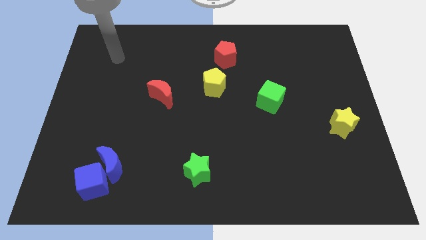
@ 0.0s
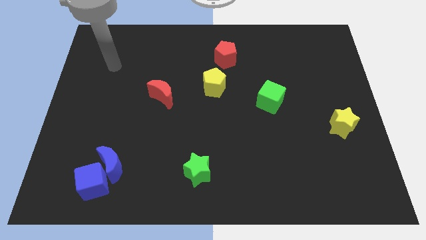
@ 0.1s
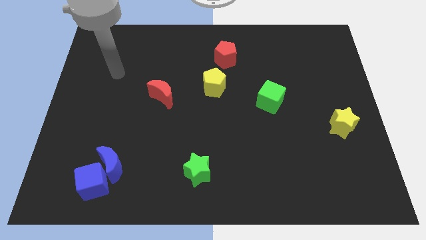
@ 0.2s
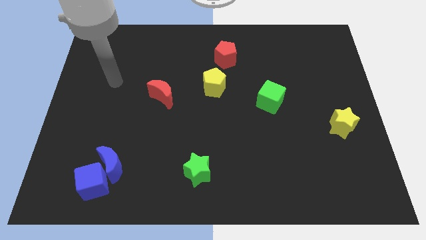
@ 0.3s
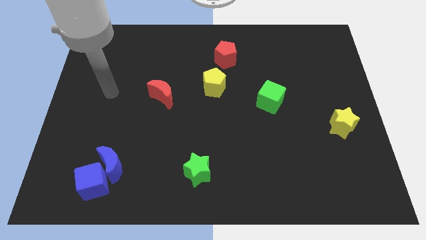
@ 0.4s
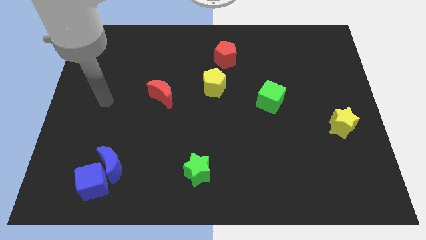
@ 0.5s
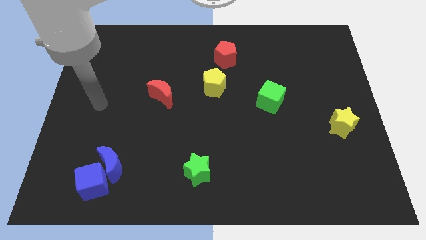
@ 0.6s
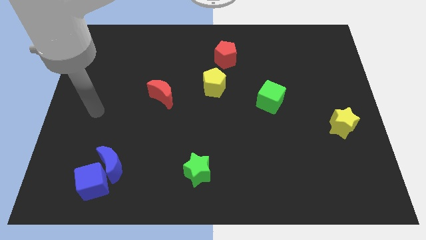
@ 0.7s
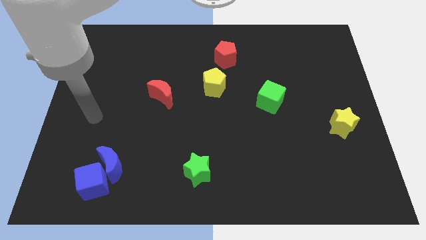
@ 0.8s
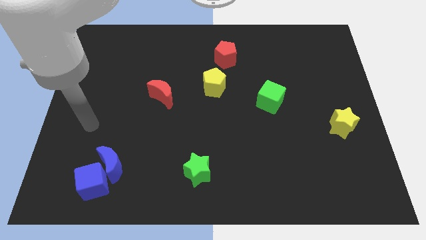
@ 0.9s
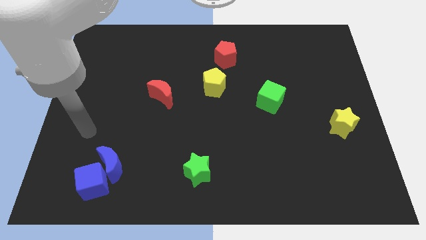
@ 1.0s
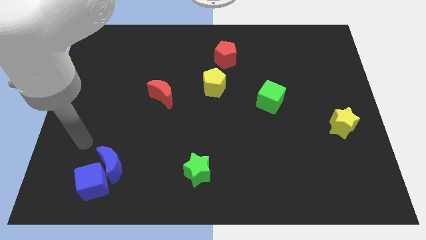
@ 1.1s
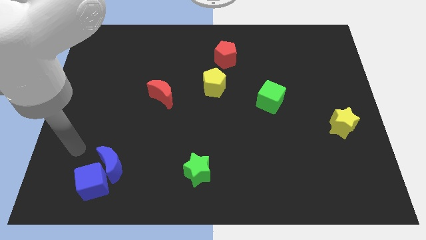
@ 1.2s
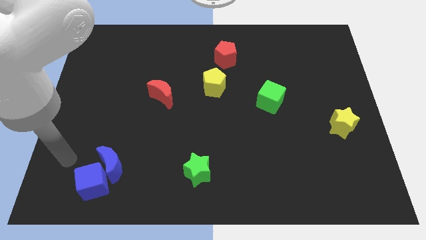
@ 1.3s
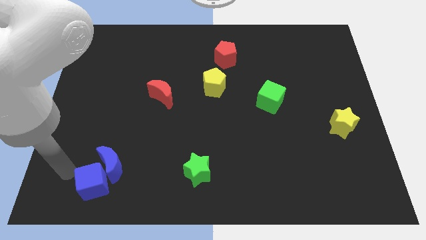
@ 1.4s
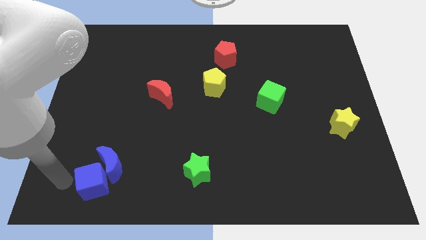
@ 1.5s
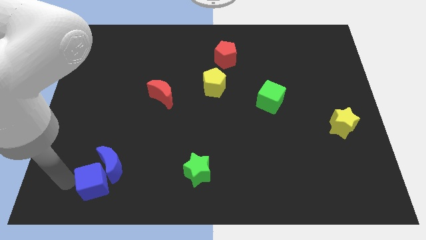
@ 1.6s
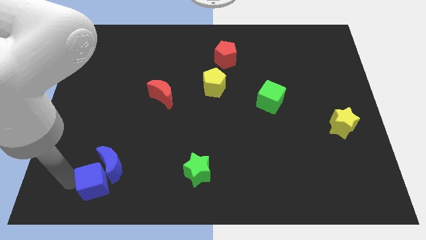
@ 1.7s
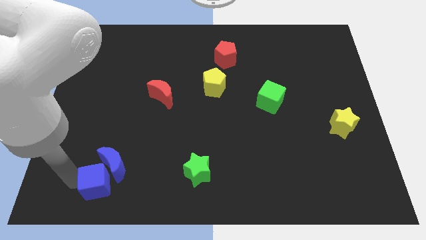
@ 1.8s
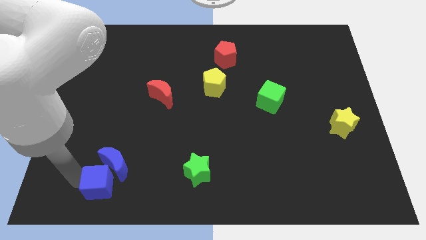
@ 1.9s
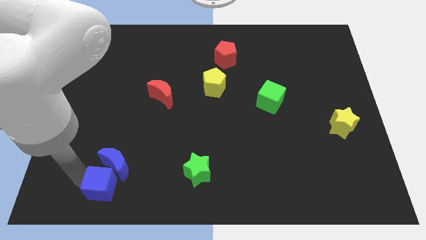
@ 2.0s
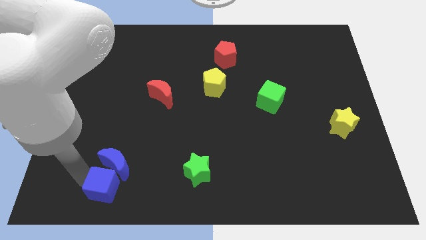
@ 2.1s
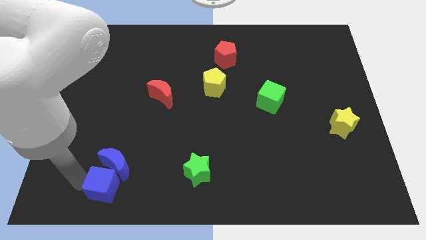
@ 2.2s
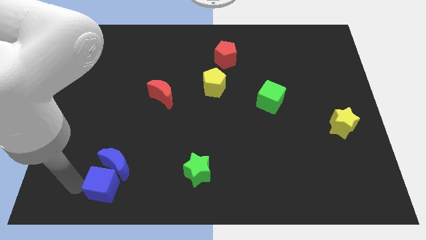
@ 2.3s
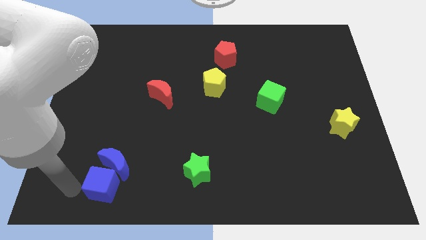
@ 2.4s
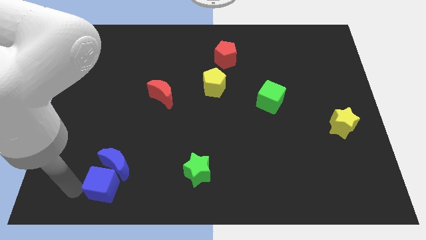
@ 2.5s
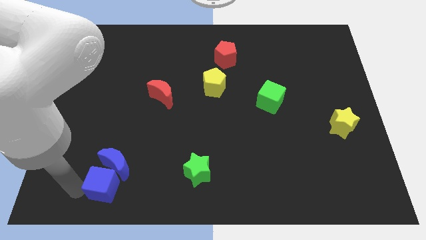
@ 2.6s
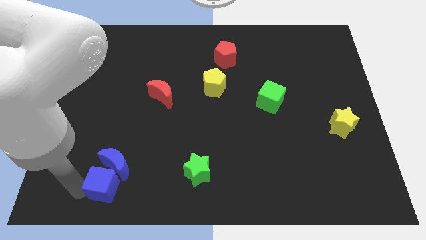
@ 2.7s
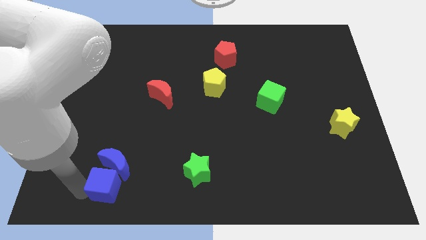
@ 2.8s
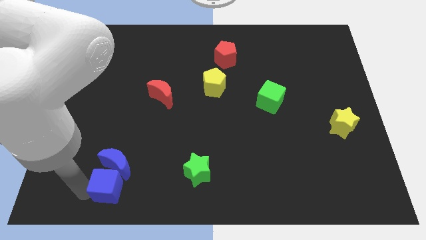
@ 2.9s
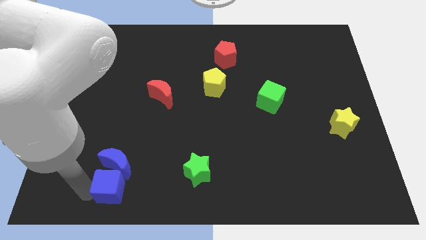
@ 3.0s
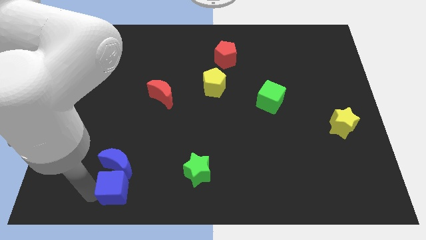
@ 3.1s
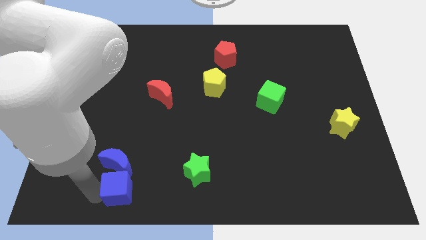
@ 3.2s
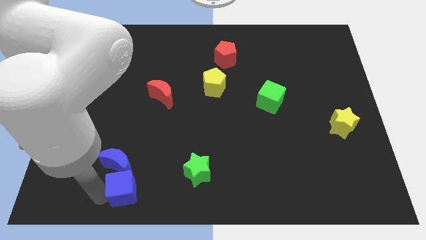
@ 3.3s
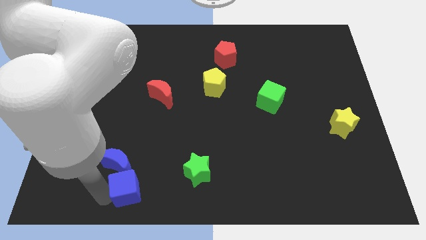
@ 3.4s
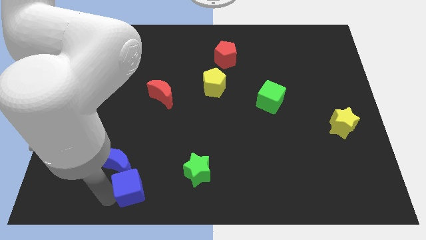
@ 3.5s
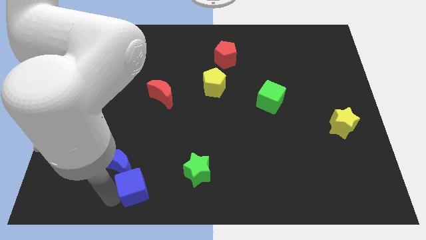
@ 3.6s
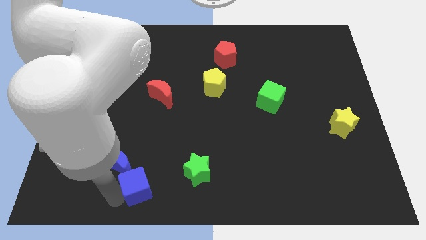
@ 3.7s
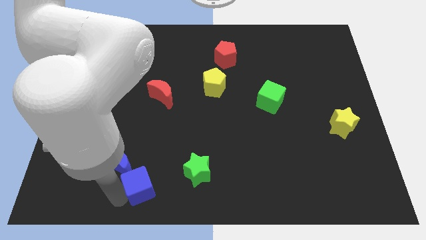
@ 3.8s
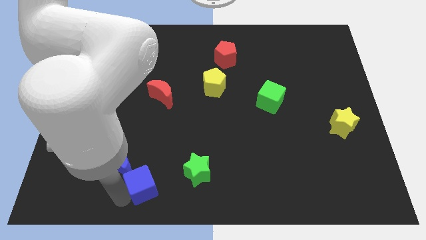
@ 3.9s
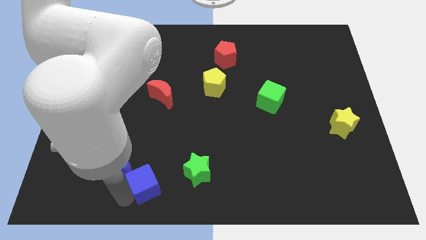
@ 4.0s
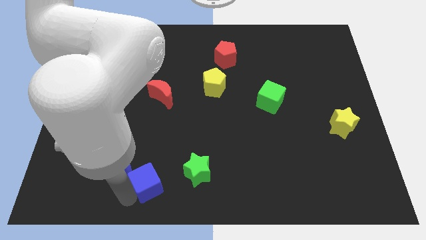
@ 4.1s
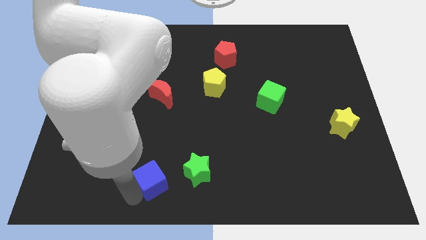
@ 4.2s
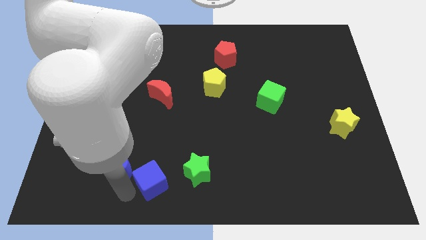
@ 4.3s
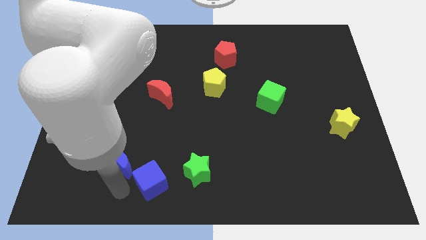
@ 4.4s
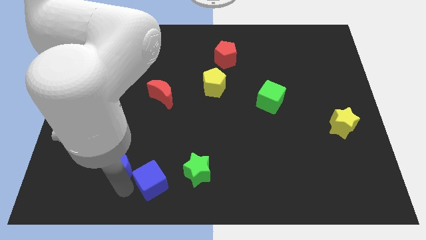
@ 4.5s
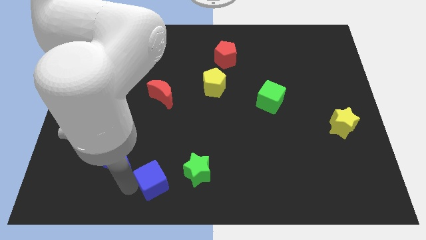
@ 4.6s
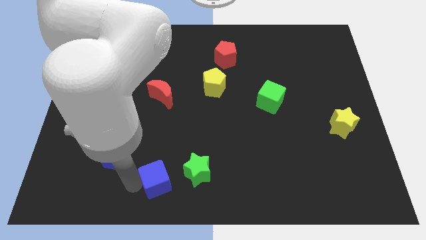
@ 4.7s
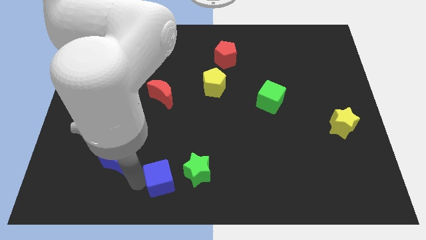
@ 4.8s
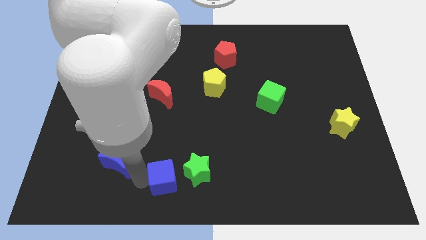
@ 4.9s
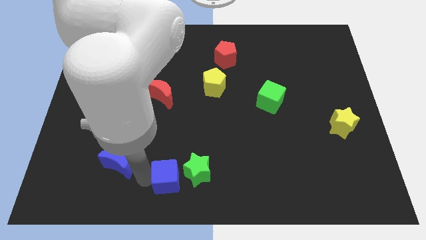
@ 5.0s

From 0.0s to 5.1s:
slide the blue cube next to the green star

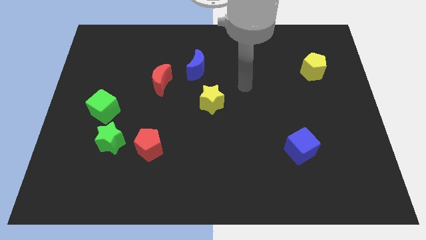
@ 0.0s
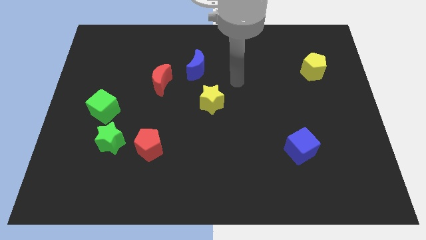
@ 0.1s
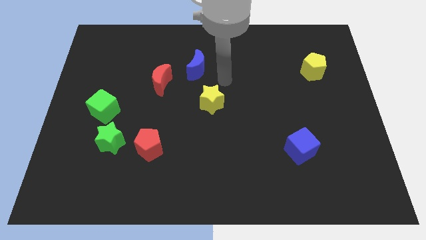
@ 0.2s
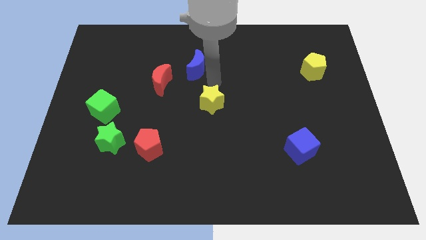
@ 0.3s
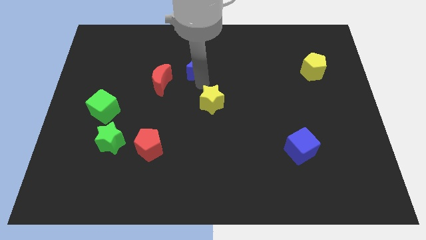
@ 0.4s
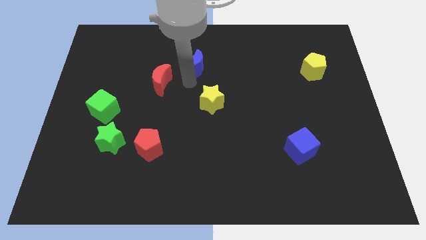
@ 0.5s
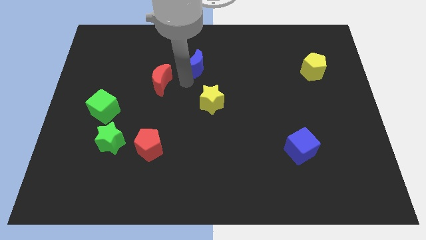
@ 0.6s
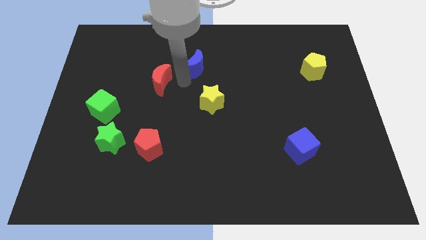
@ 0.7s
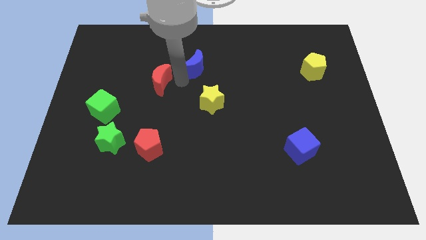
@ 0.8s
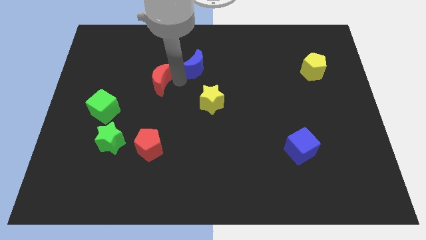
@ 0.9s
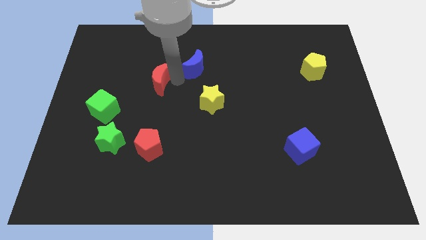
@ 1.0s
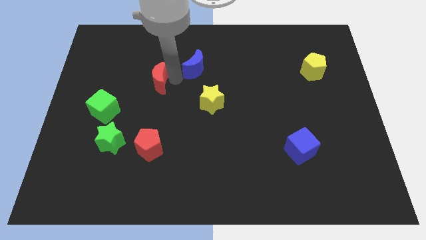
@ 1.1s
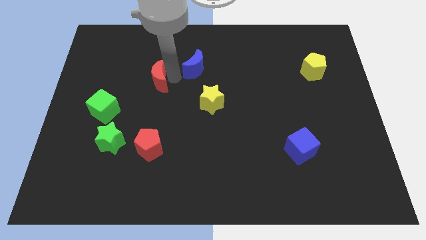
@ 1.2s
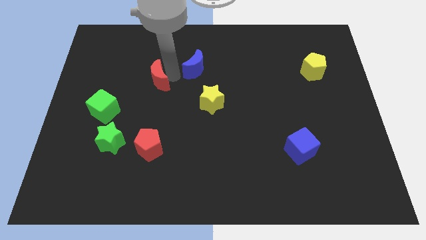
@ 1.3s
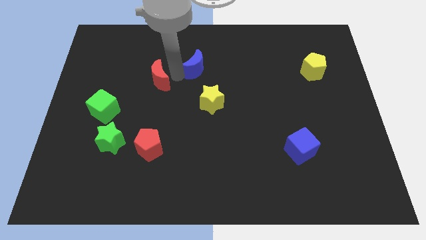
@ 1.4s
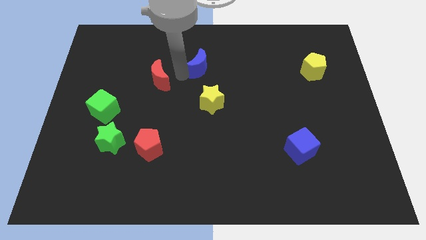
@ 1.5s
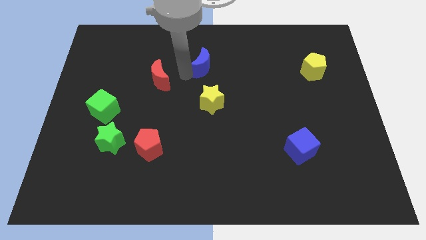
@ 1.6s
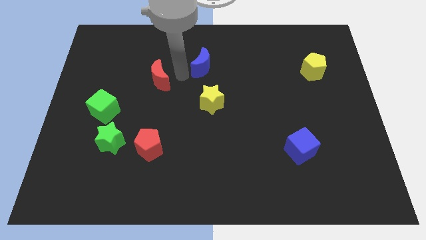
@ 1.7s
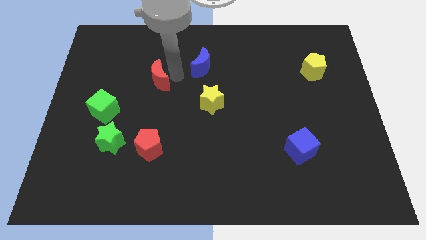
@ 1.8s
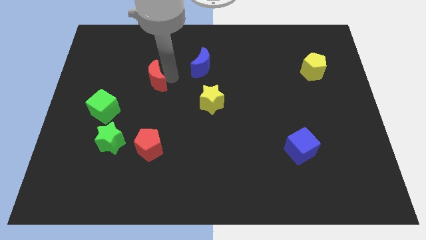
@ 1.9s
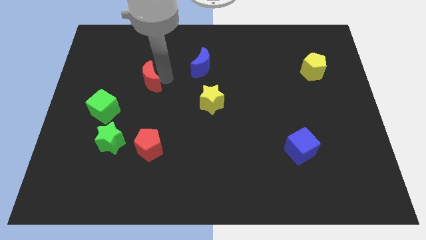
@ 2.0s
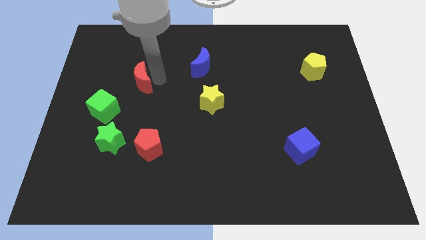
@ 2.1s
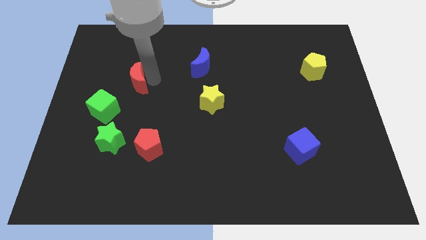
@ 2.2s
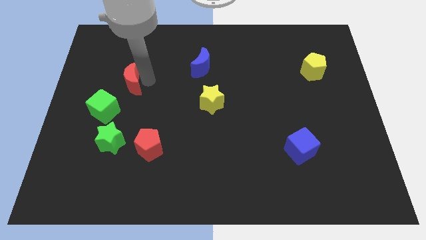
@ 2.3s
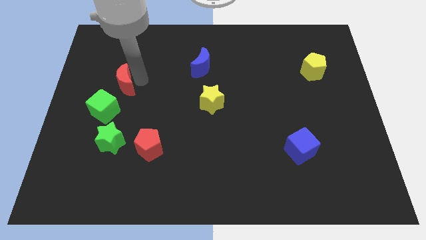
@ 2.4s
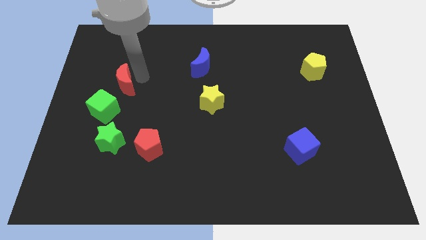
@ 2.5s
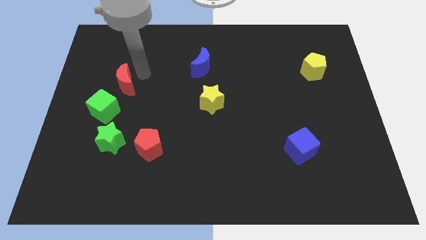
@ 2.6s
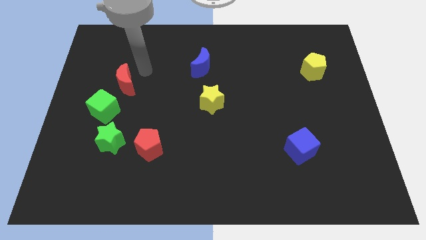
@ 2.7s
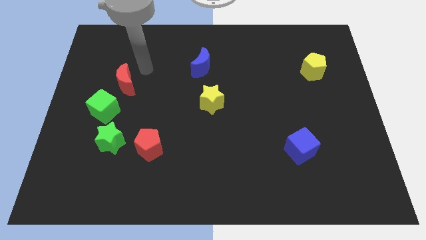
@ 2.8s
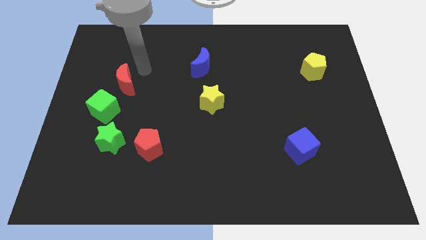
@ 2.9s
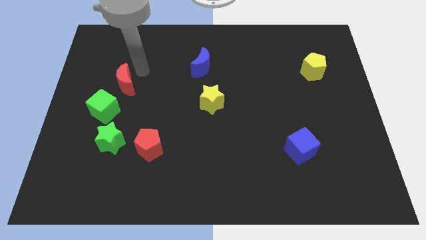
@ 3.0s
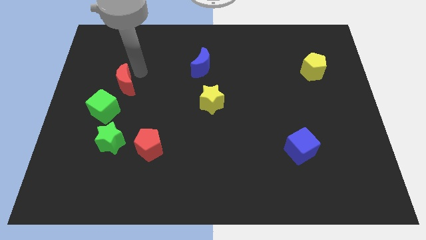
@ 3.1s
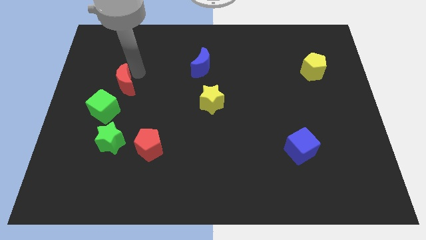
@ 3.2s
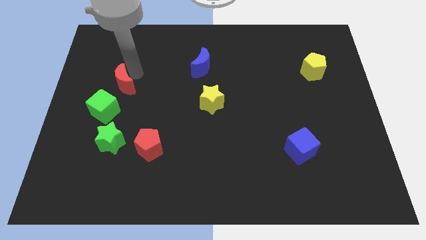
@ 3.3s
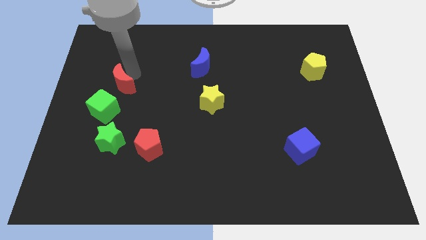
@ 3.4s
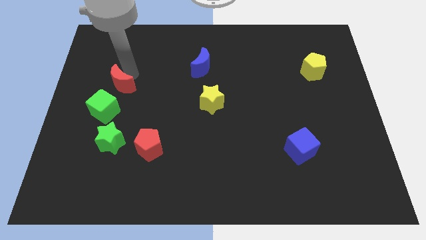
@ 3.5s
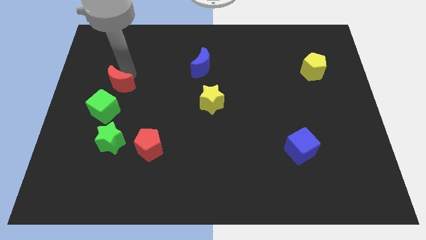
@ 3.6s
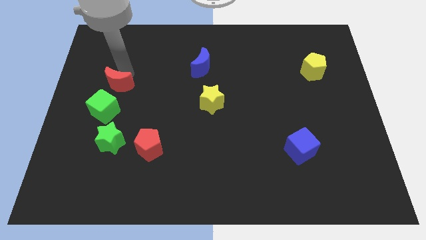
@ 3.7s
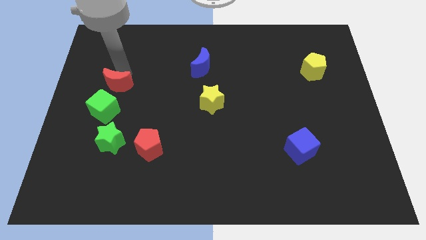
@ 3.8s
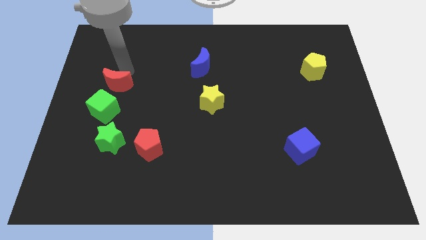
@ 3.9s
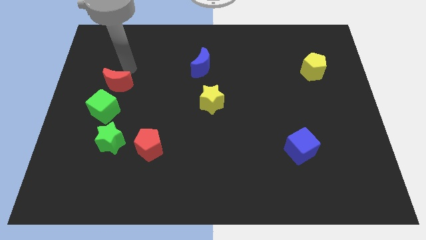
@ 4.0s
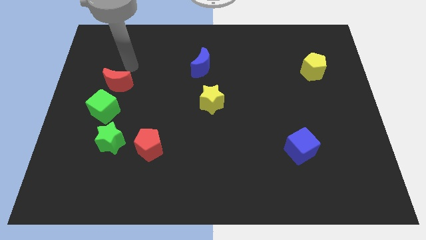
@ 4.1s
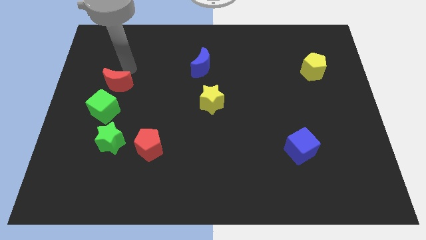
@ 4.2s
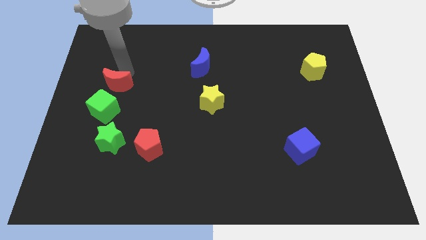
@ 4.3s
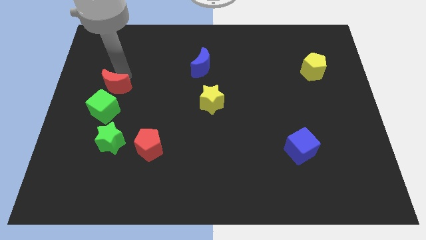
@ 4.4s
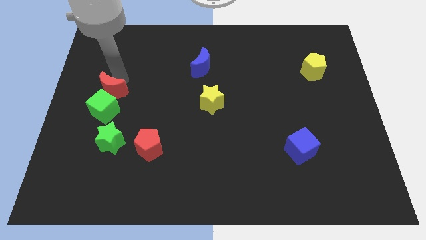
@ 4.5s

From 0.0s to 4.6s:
put the red moon close to the green cube
